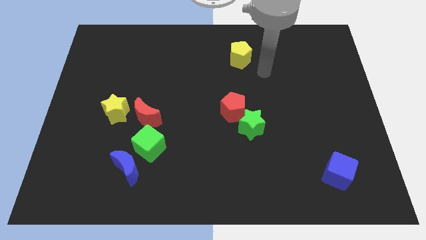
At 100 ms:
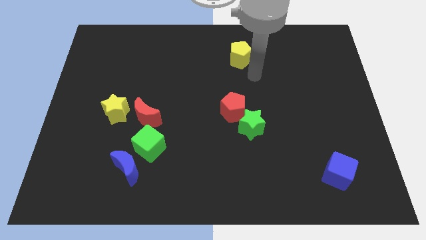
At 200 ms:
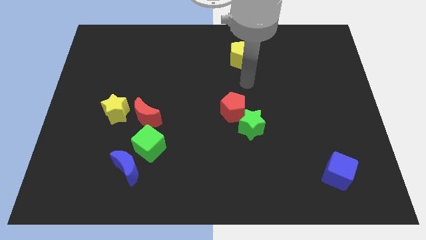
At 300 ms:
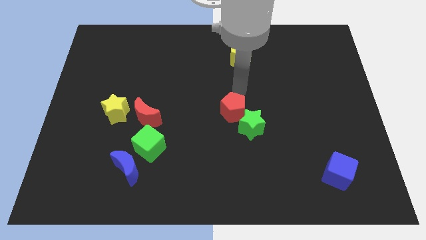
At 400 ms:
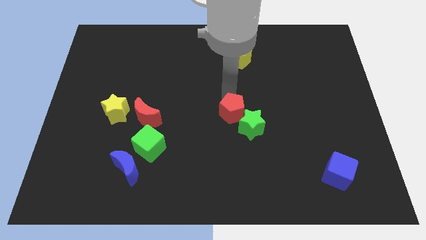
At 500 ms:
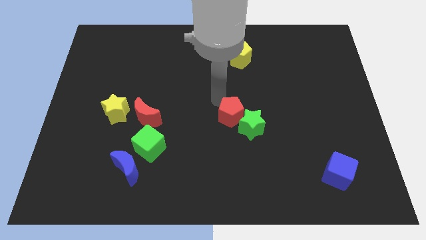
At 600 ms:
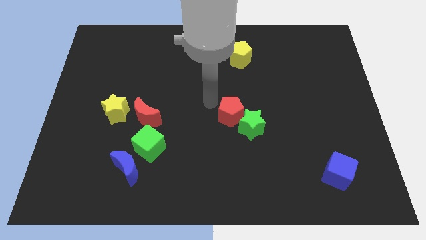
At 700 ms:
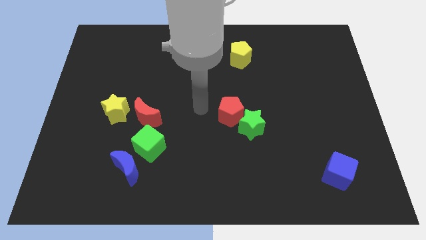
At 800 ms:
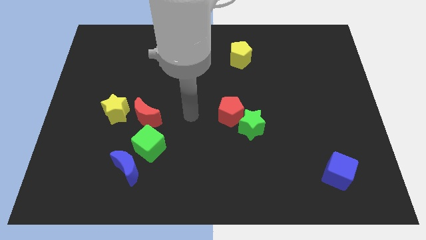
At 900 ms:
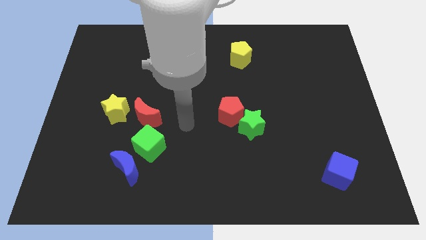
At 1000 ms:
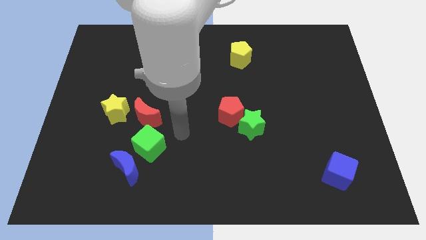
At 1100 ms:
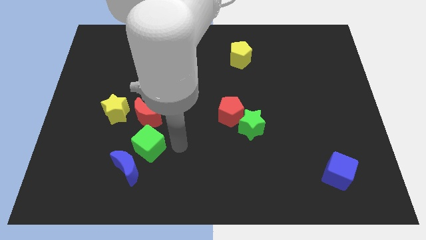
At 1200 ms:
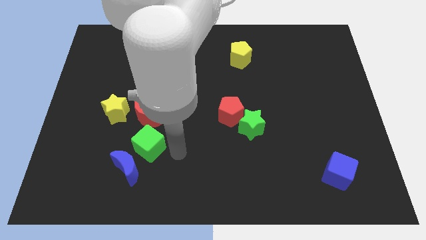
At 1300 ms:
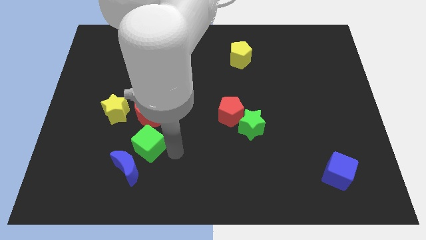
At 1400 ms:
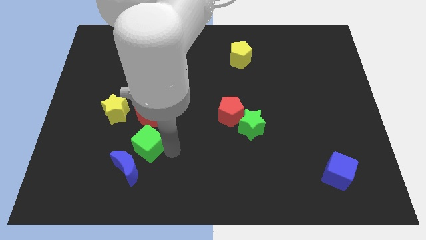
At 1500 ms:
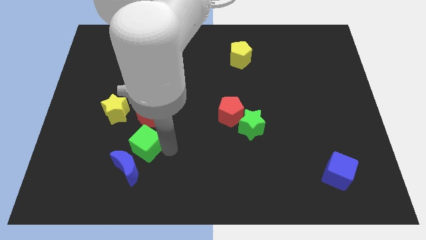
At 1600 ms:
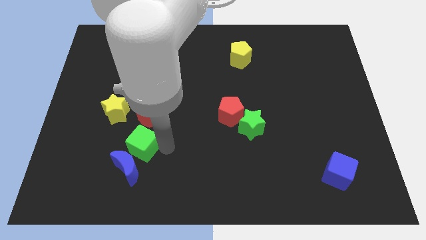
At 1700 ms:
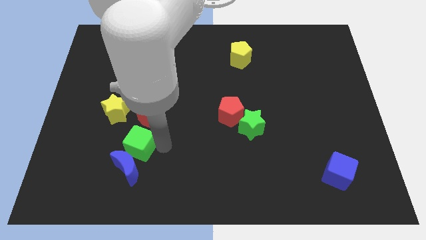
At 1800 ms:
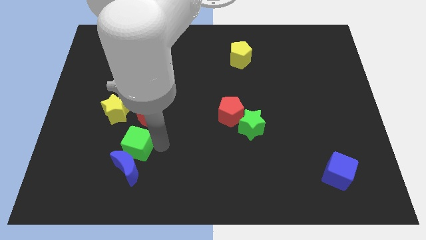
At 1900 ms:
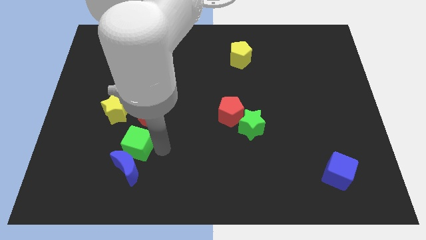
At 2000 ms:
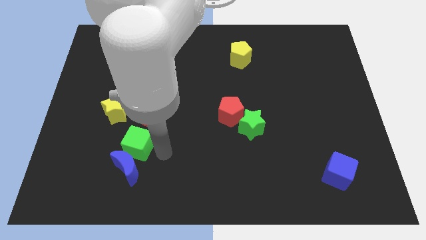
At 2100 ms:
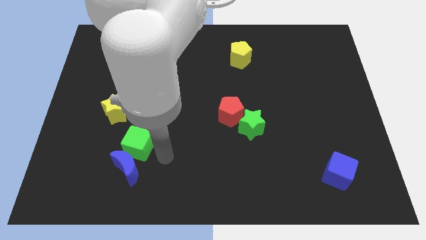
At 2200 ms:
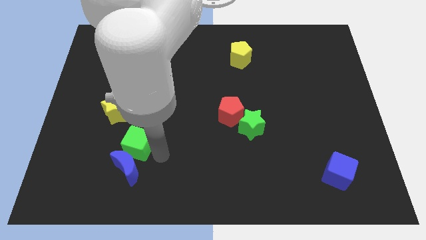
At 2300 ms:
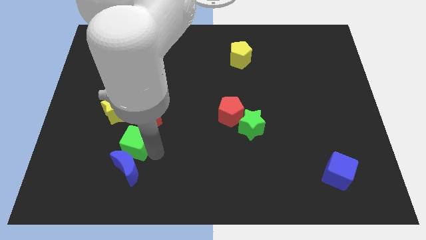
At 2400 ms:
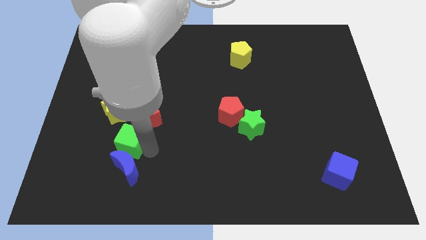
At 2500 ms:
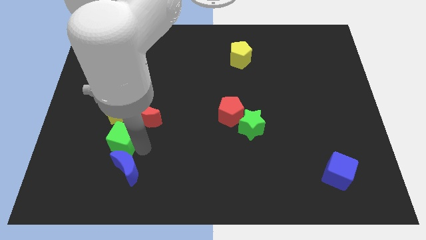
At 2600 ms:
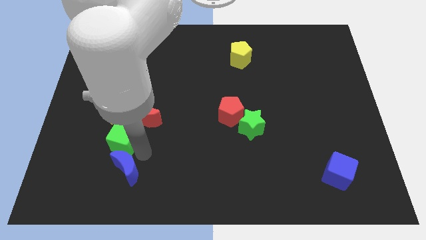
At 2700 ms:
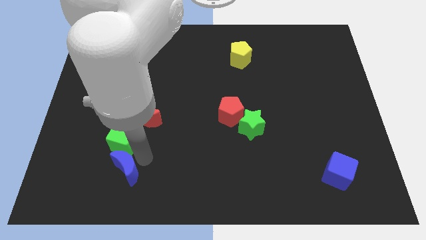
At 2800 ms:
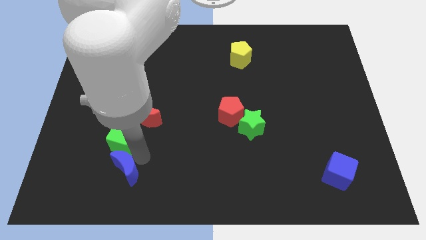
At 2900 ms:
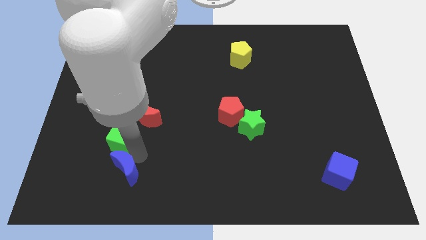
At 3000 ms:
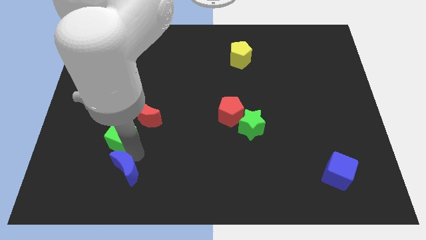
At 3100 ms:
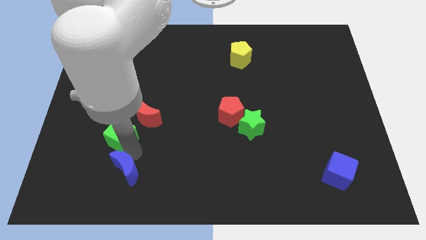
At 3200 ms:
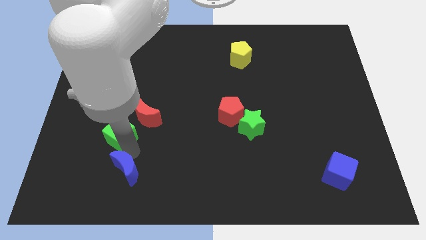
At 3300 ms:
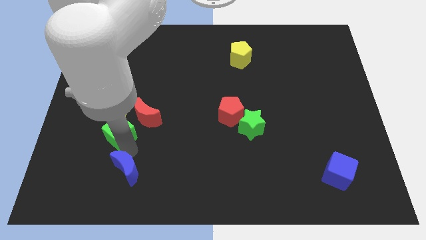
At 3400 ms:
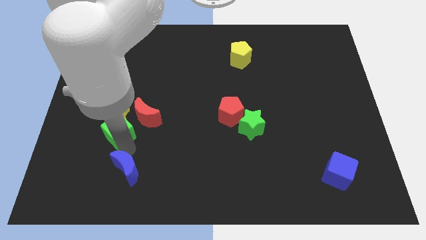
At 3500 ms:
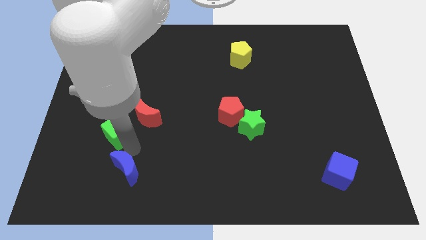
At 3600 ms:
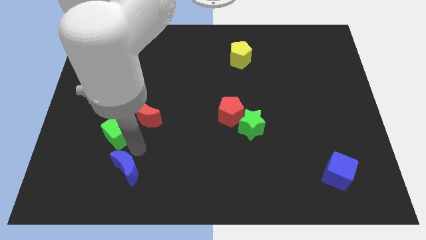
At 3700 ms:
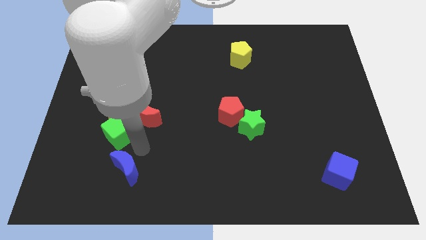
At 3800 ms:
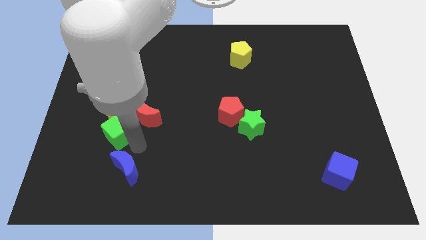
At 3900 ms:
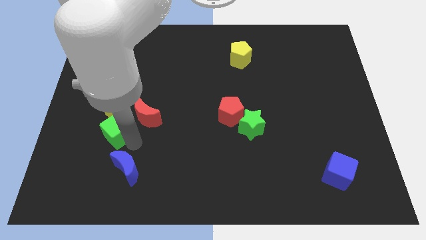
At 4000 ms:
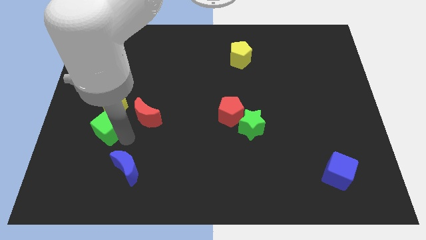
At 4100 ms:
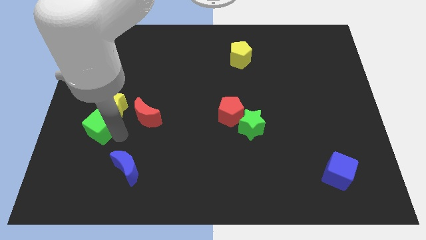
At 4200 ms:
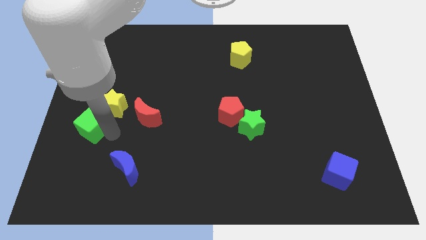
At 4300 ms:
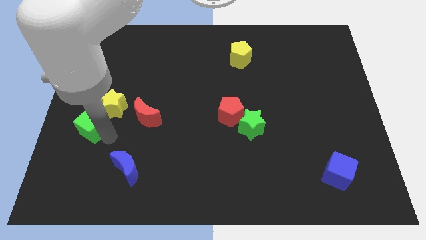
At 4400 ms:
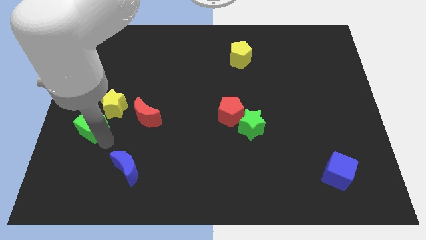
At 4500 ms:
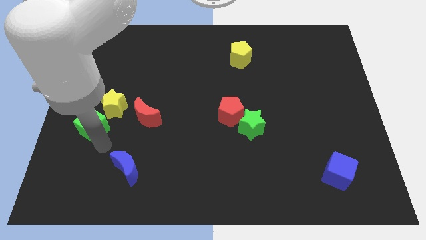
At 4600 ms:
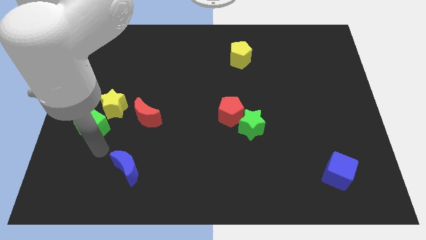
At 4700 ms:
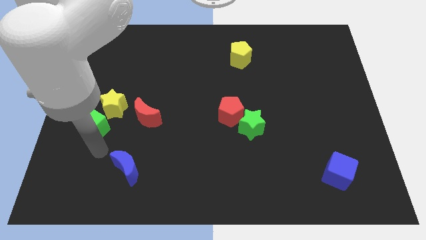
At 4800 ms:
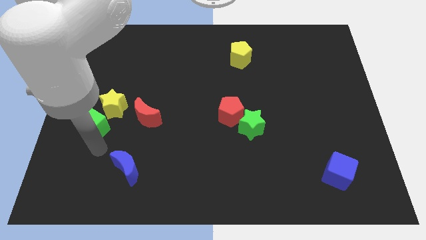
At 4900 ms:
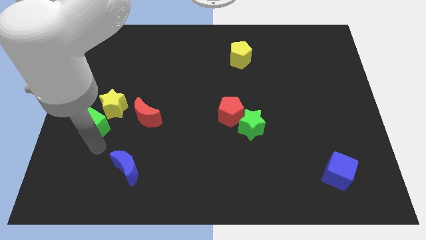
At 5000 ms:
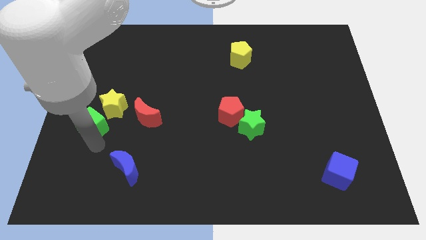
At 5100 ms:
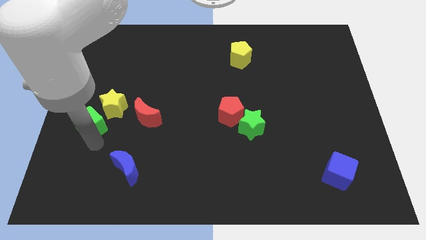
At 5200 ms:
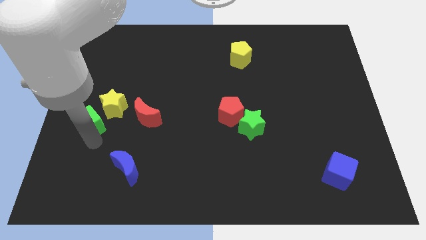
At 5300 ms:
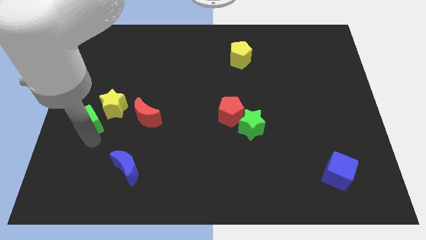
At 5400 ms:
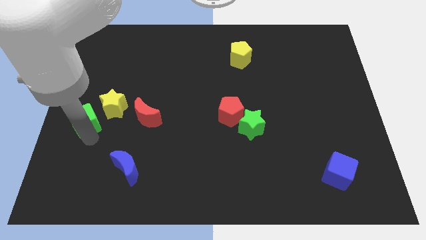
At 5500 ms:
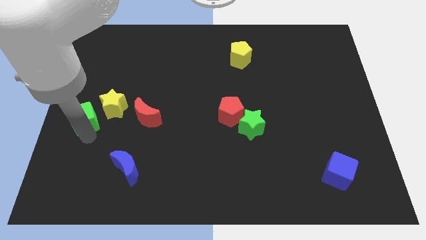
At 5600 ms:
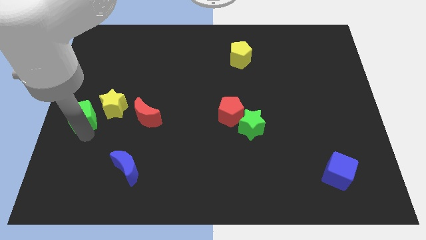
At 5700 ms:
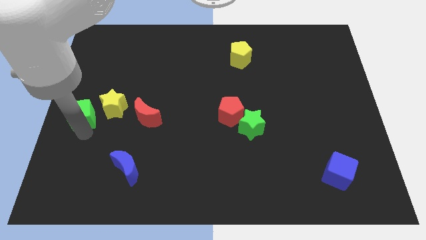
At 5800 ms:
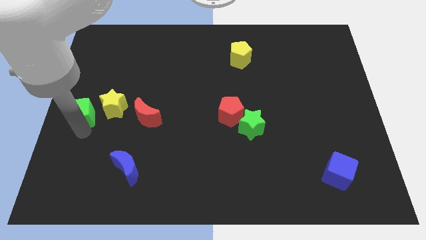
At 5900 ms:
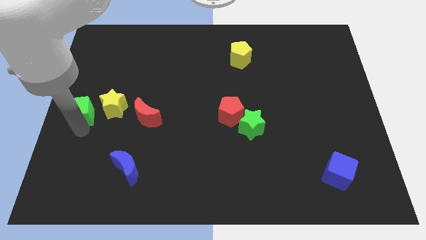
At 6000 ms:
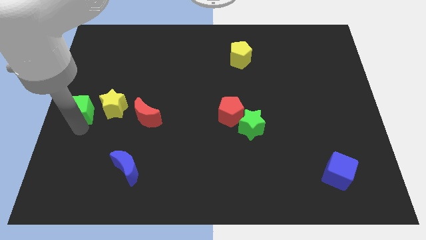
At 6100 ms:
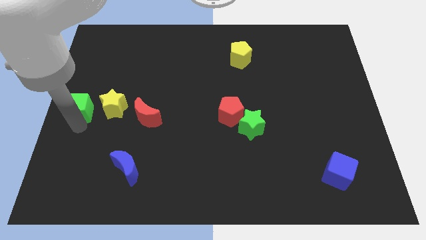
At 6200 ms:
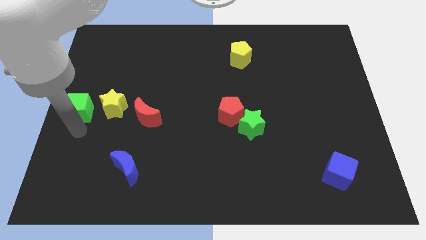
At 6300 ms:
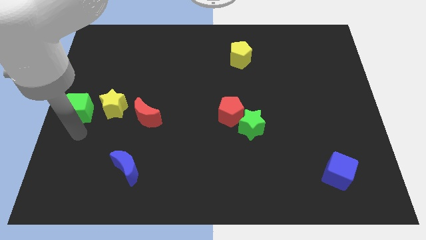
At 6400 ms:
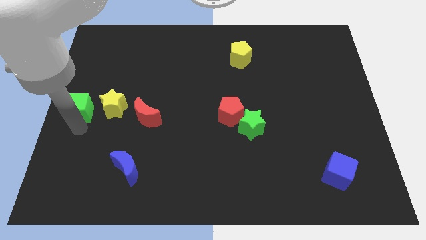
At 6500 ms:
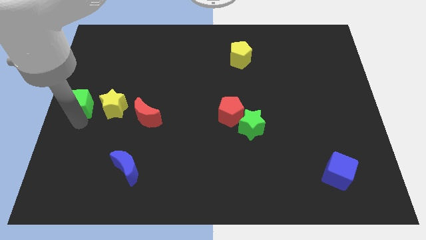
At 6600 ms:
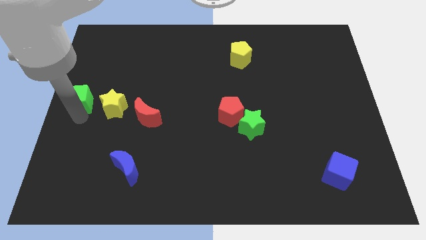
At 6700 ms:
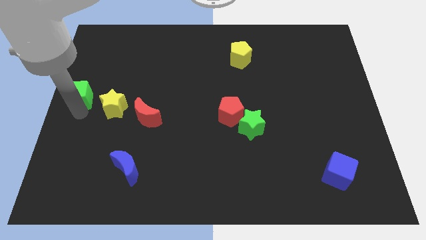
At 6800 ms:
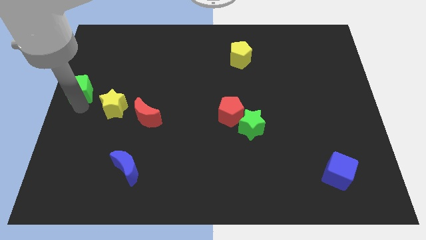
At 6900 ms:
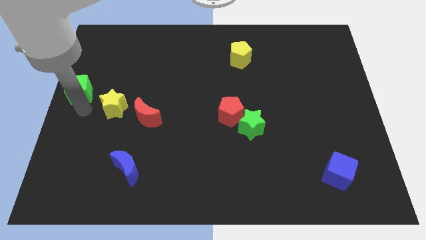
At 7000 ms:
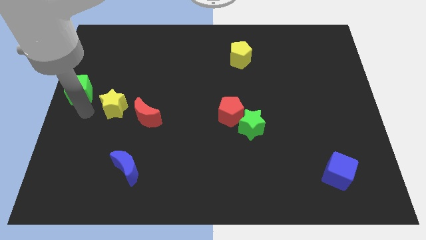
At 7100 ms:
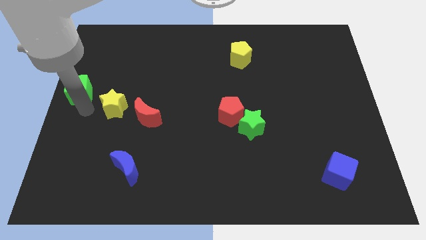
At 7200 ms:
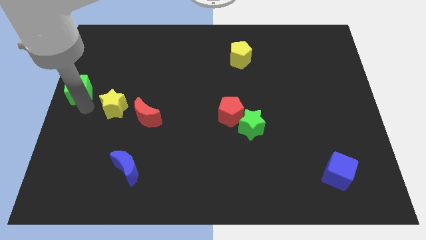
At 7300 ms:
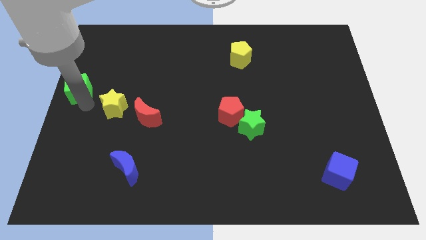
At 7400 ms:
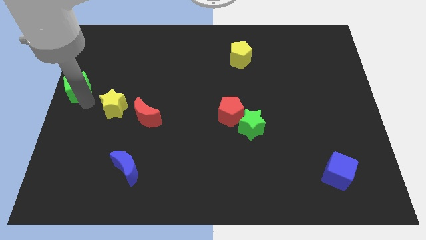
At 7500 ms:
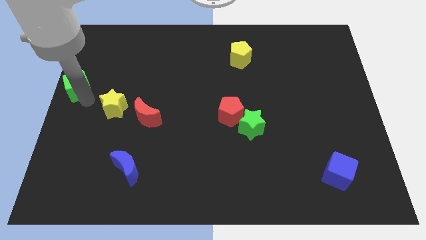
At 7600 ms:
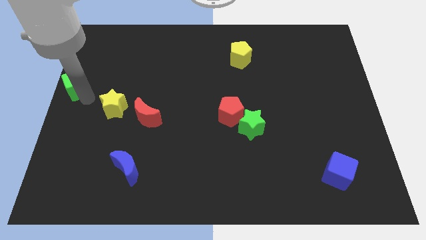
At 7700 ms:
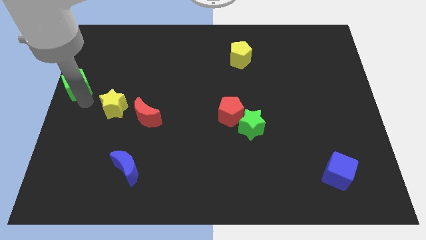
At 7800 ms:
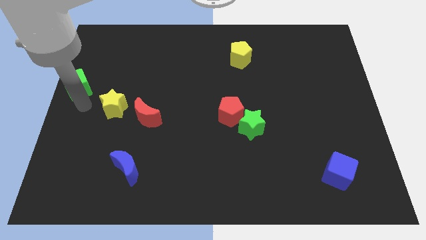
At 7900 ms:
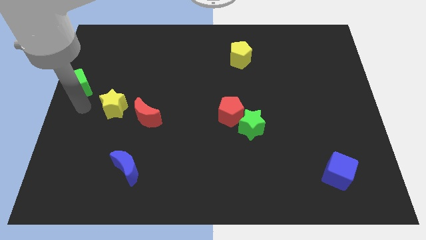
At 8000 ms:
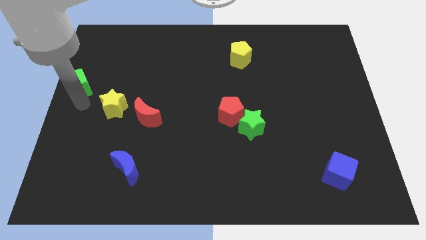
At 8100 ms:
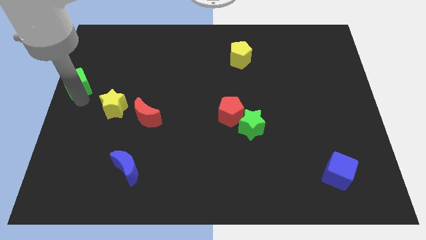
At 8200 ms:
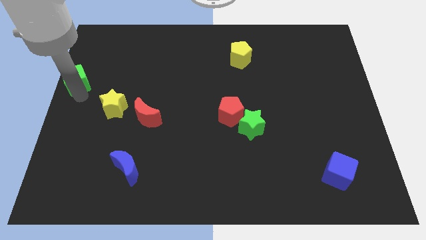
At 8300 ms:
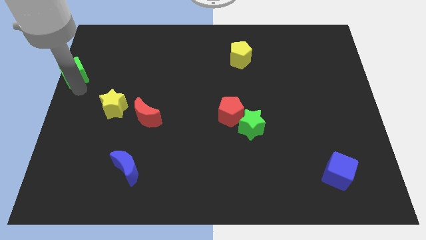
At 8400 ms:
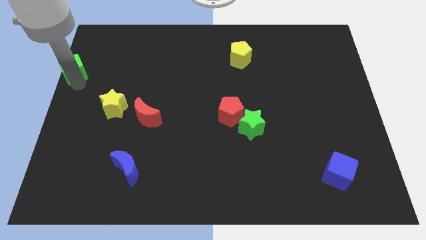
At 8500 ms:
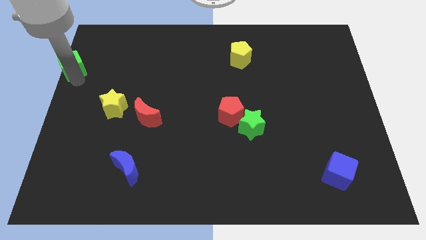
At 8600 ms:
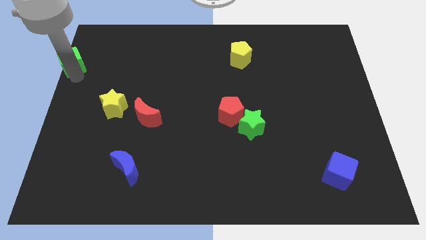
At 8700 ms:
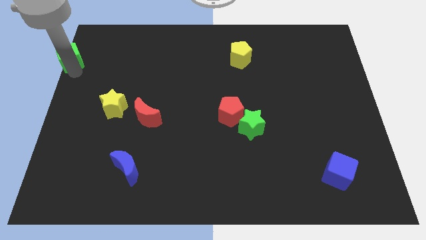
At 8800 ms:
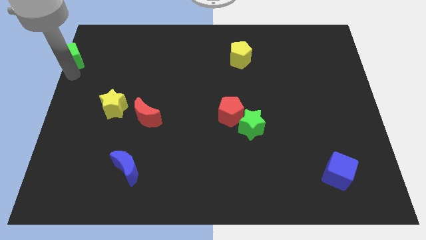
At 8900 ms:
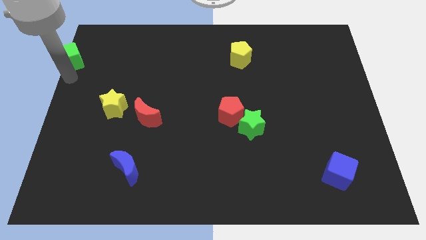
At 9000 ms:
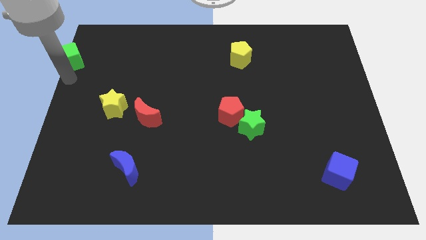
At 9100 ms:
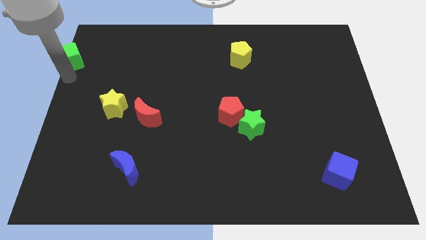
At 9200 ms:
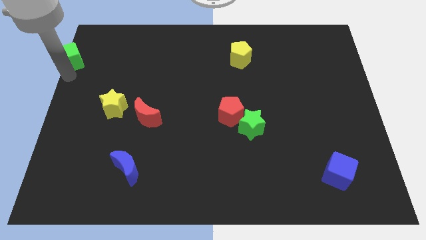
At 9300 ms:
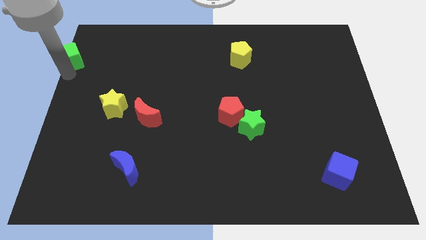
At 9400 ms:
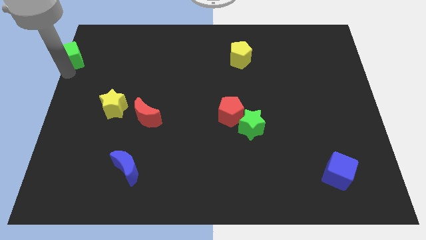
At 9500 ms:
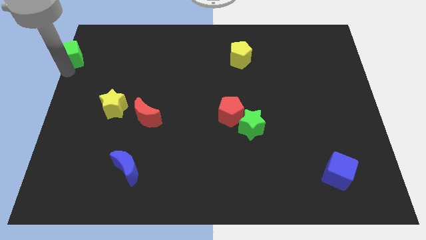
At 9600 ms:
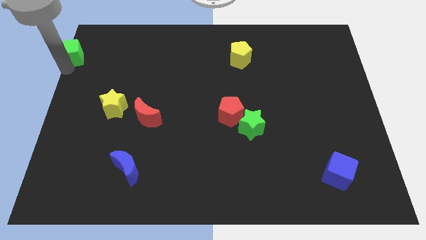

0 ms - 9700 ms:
push the green cube to the top left corner
